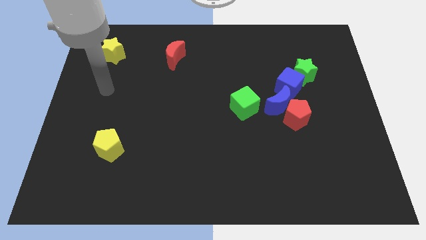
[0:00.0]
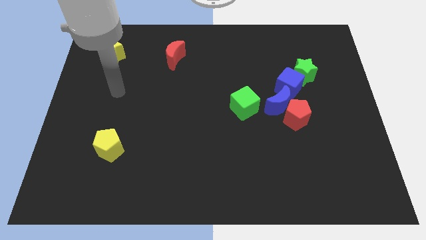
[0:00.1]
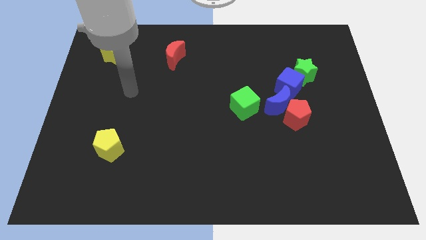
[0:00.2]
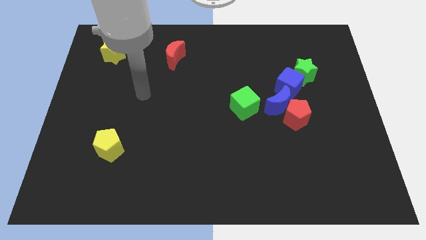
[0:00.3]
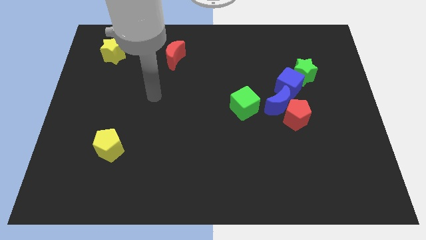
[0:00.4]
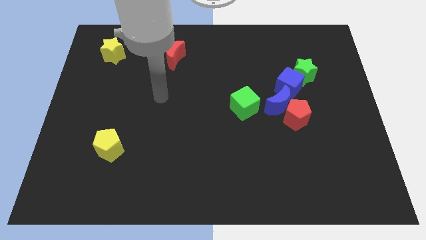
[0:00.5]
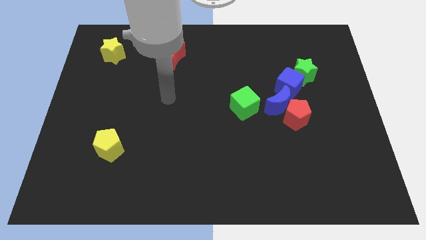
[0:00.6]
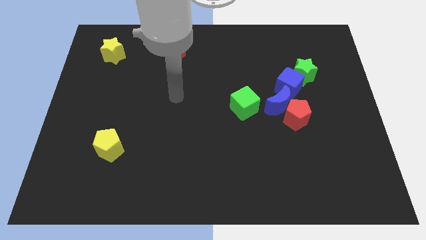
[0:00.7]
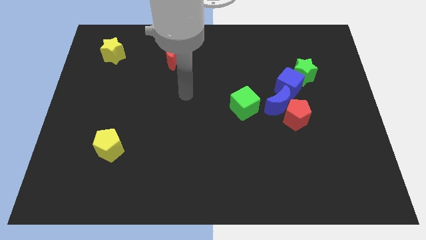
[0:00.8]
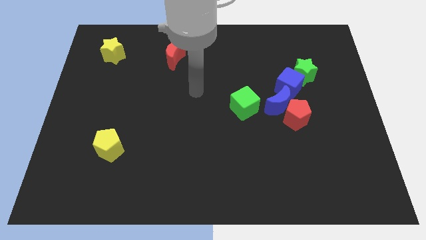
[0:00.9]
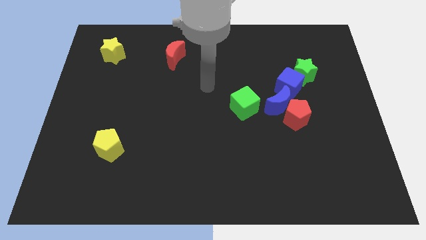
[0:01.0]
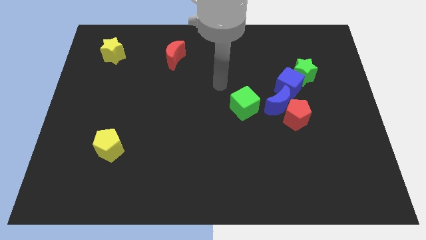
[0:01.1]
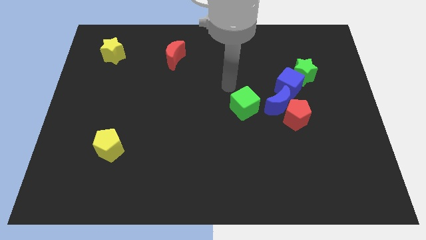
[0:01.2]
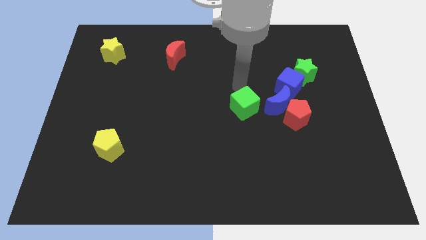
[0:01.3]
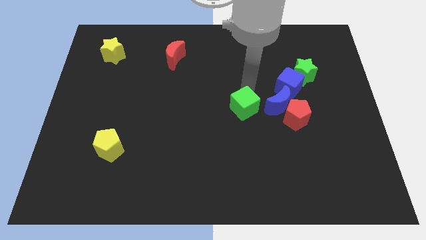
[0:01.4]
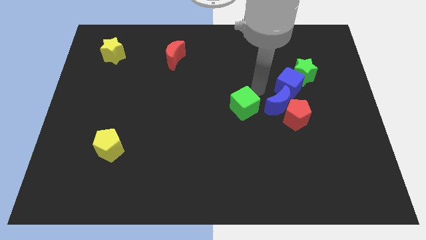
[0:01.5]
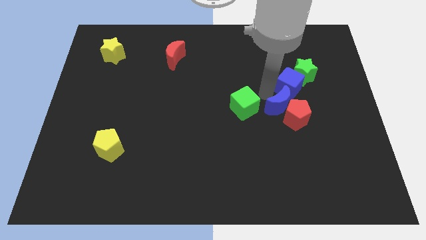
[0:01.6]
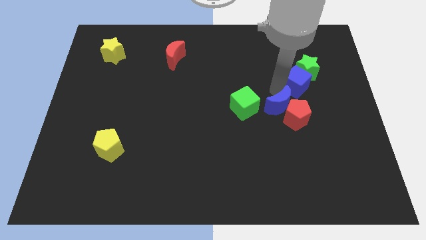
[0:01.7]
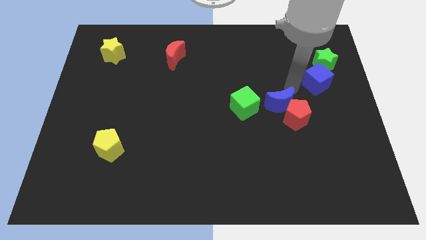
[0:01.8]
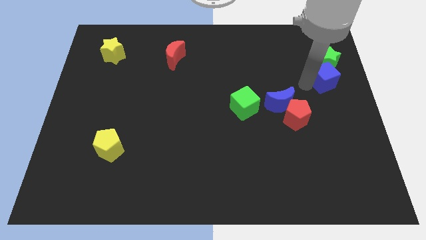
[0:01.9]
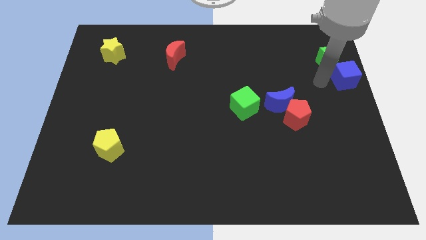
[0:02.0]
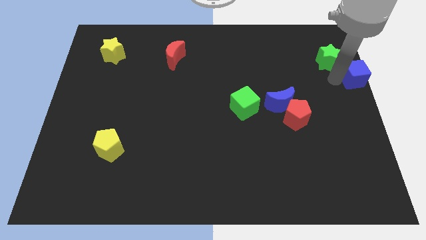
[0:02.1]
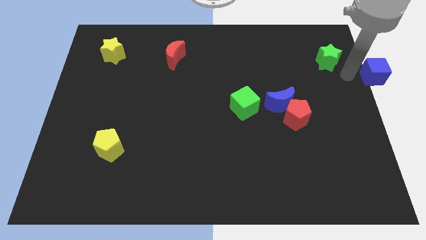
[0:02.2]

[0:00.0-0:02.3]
pull the green star apart from the blue cube

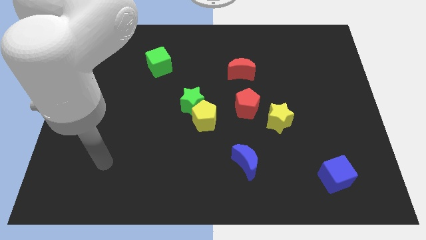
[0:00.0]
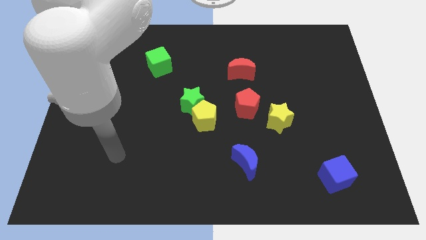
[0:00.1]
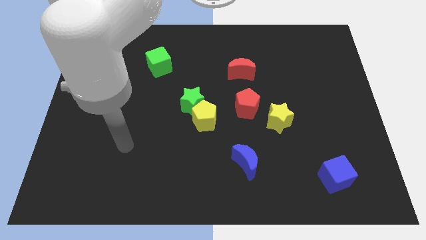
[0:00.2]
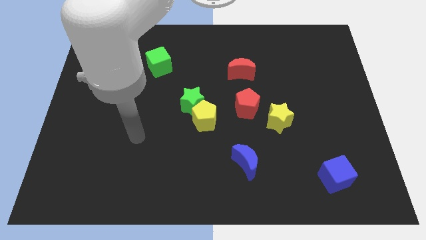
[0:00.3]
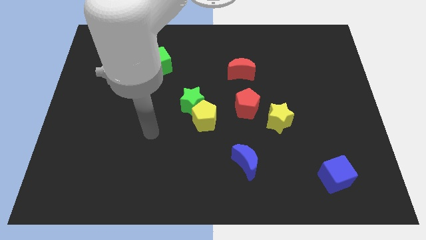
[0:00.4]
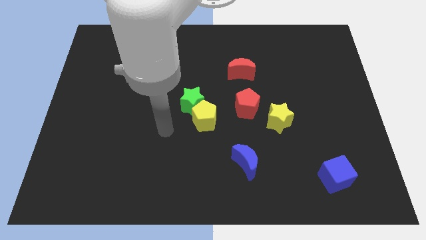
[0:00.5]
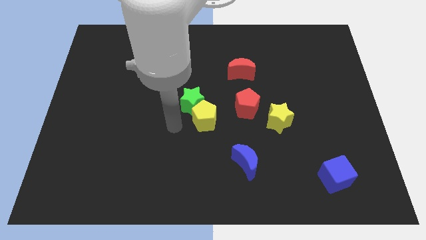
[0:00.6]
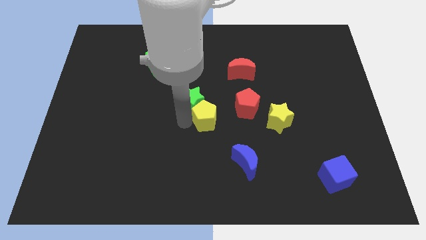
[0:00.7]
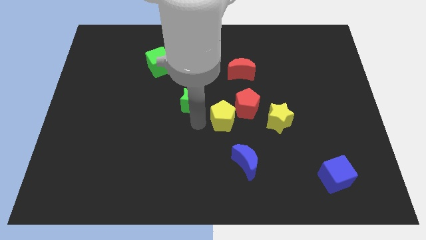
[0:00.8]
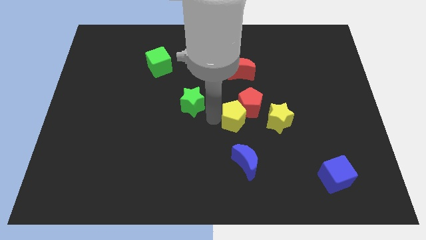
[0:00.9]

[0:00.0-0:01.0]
separate the green star from the yellow pentagon

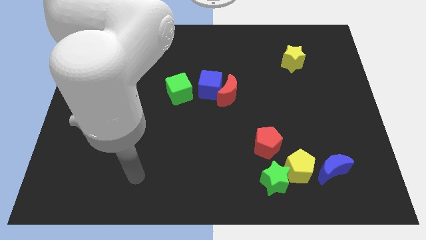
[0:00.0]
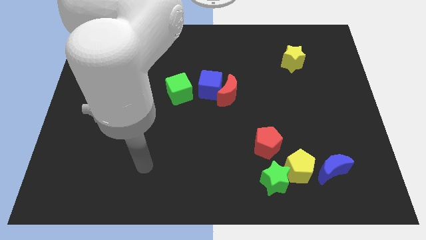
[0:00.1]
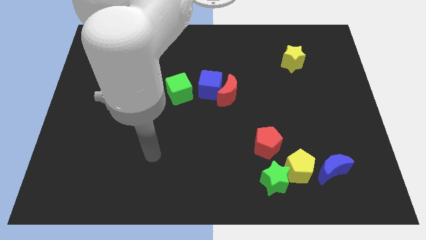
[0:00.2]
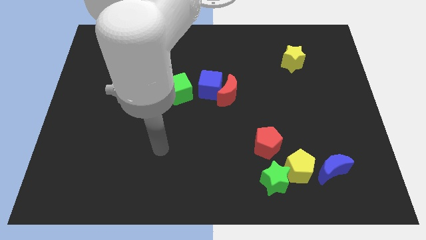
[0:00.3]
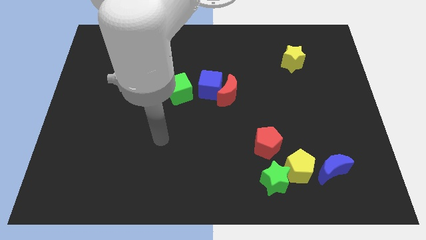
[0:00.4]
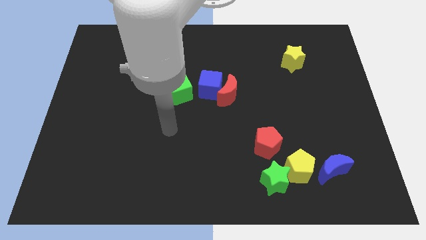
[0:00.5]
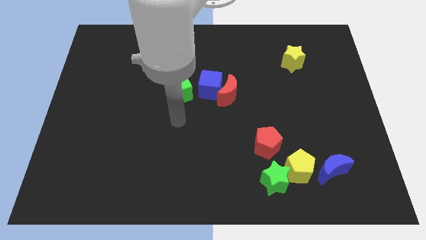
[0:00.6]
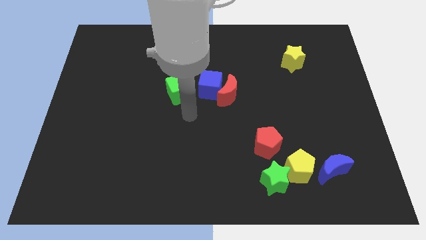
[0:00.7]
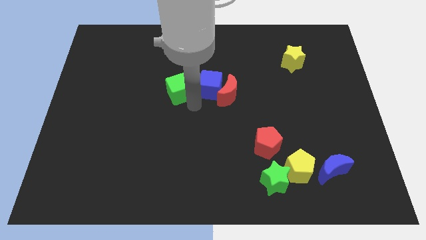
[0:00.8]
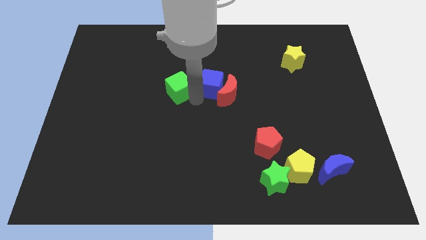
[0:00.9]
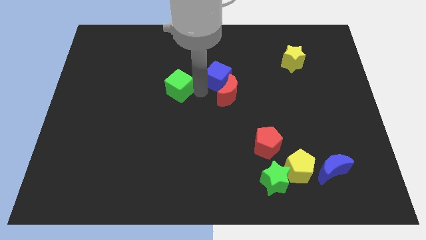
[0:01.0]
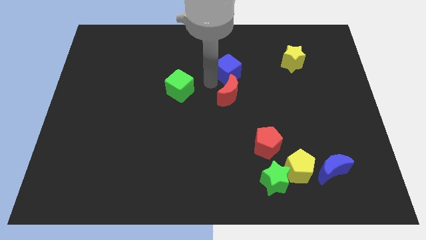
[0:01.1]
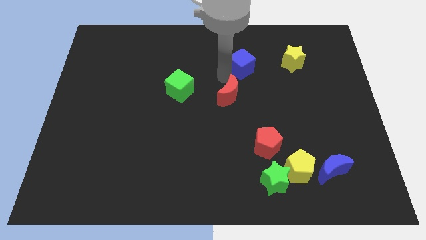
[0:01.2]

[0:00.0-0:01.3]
pull the red moon apart from the blue cube

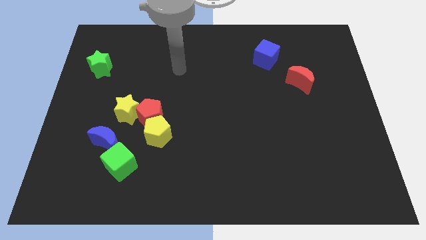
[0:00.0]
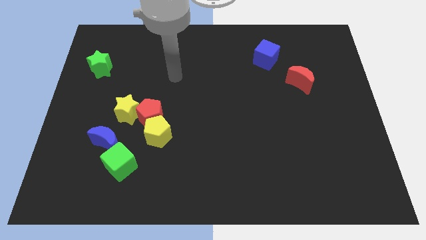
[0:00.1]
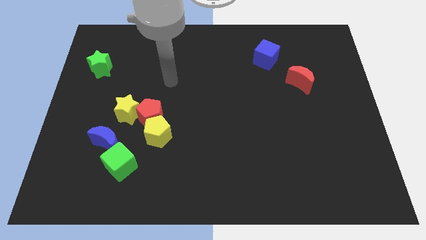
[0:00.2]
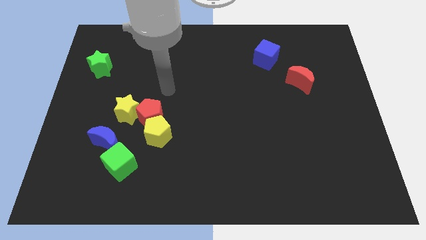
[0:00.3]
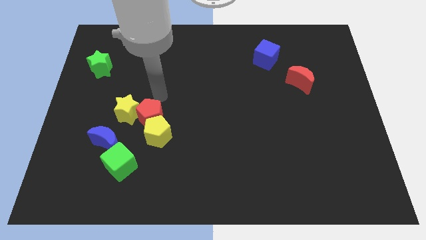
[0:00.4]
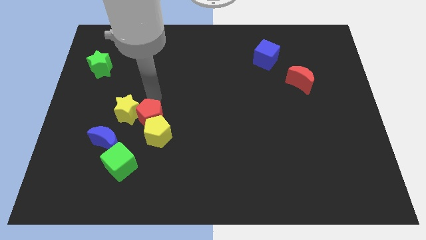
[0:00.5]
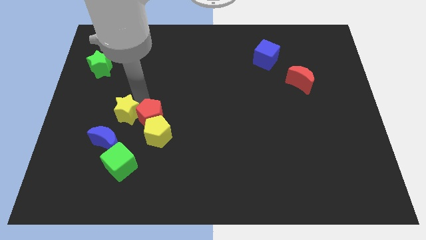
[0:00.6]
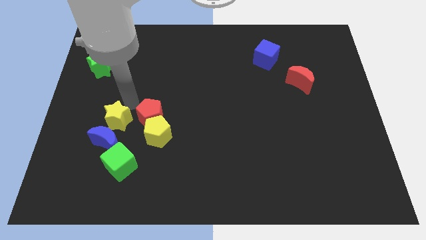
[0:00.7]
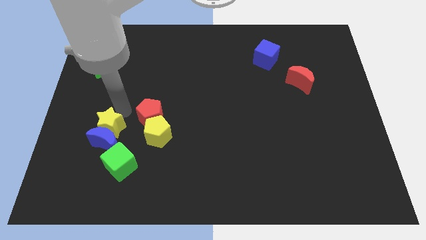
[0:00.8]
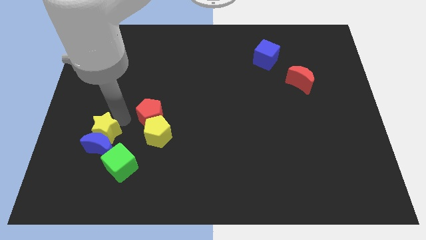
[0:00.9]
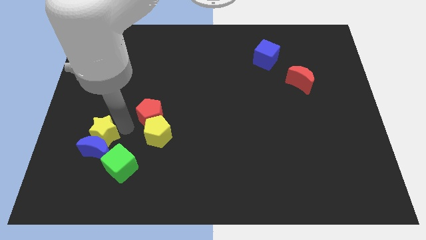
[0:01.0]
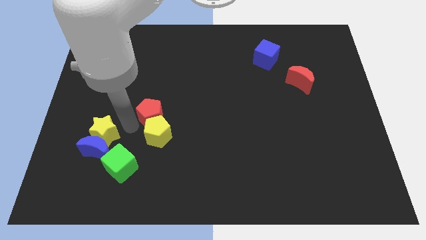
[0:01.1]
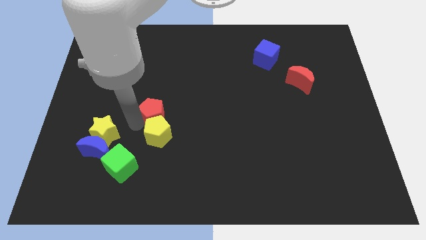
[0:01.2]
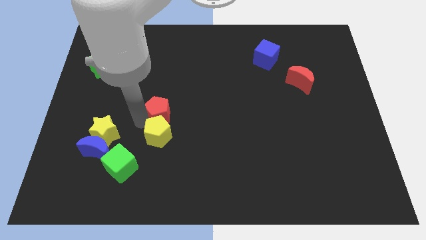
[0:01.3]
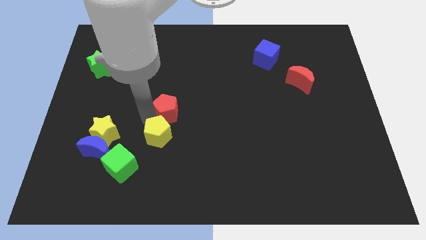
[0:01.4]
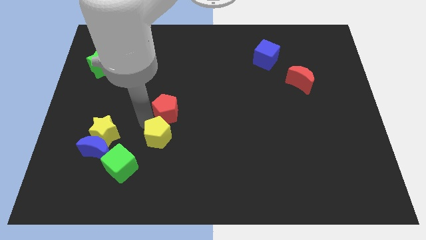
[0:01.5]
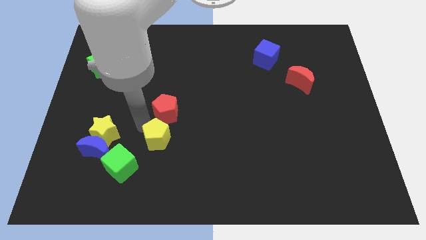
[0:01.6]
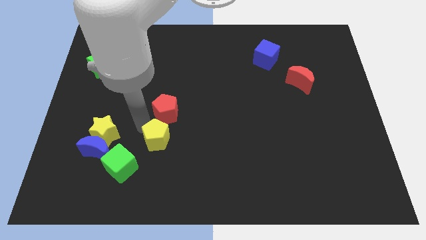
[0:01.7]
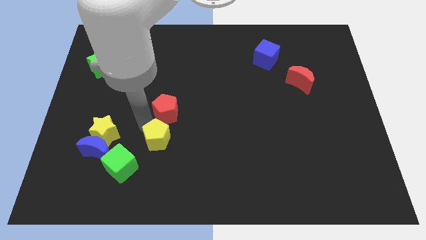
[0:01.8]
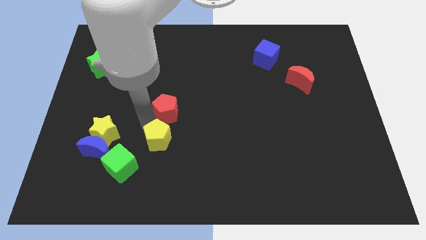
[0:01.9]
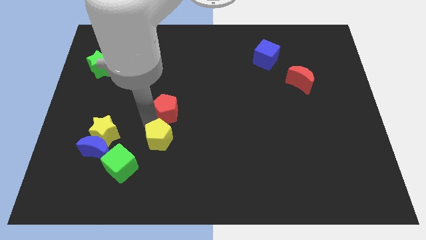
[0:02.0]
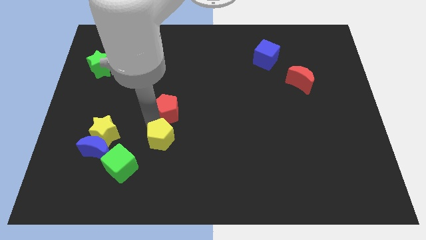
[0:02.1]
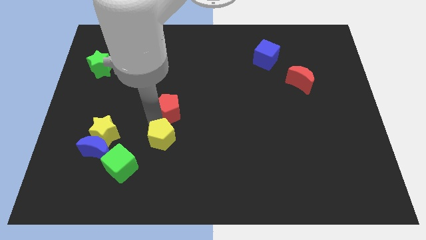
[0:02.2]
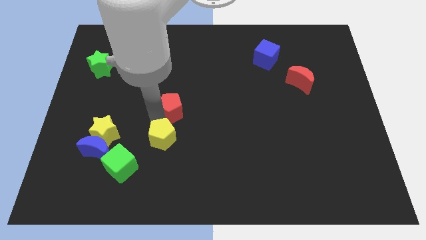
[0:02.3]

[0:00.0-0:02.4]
separate the red pentagon from the yellow pentagon and yellow star

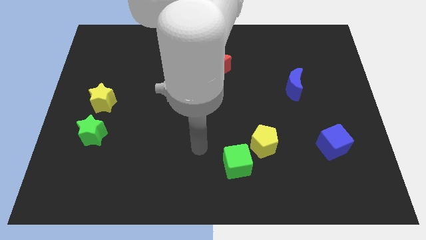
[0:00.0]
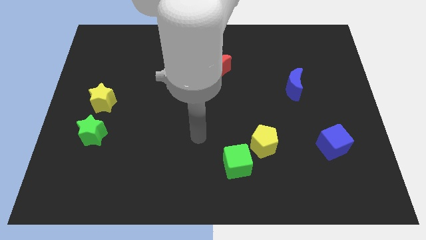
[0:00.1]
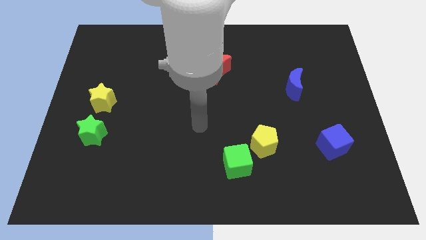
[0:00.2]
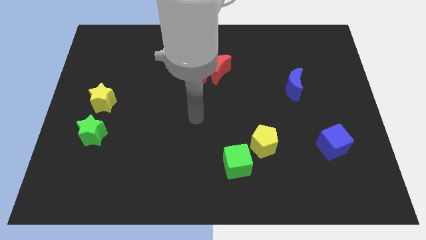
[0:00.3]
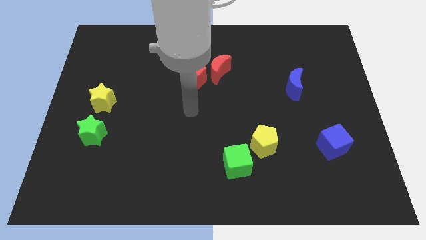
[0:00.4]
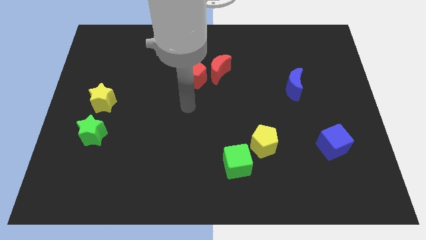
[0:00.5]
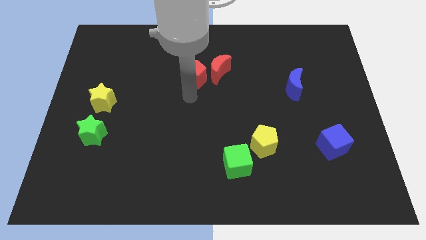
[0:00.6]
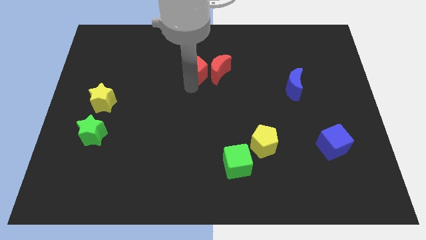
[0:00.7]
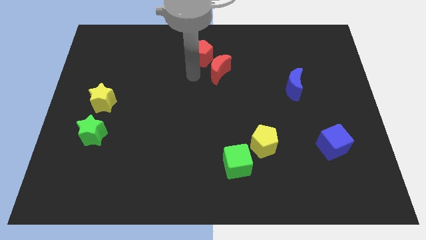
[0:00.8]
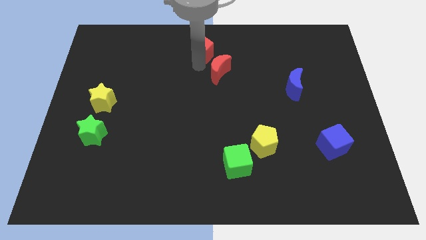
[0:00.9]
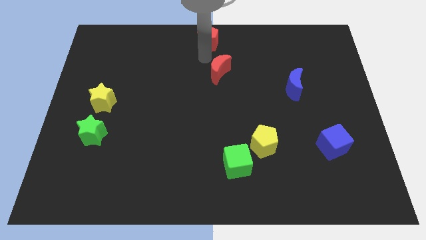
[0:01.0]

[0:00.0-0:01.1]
move the red moon away from the red pentagon

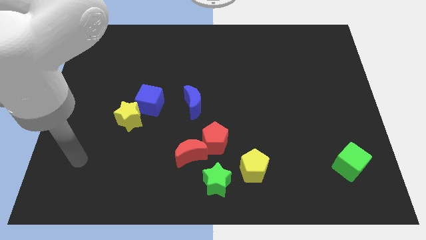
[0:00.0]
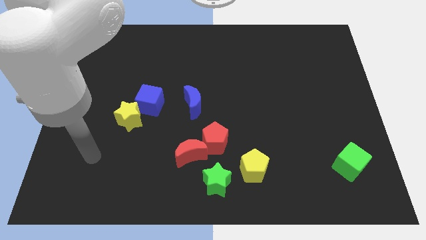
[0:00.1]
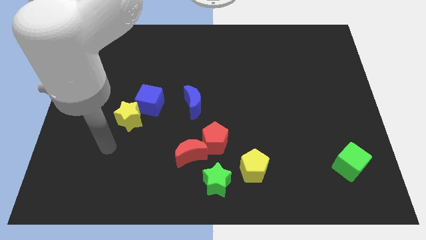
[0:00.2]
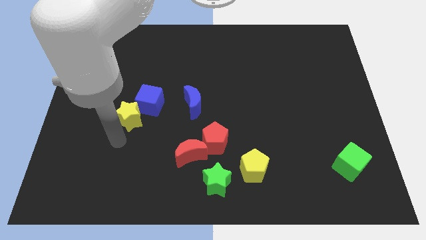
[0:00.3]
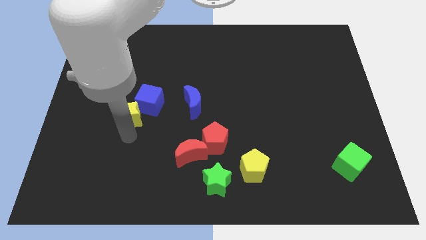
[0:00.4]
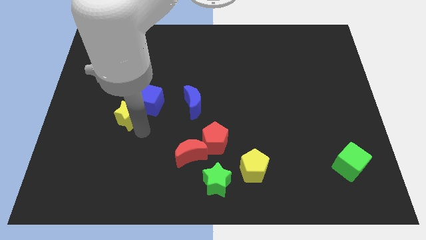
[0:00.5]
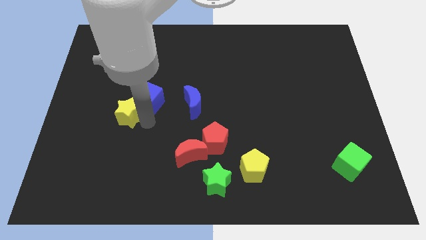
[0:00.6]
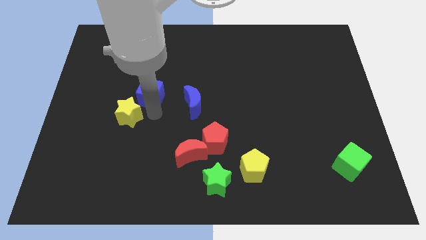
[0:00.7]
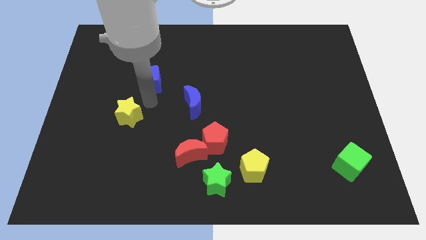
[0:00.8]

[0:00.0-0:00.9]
separate the yellow star from the blue cube

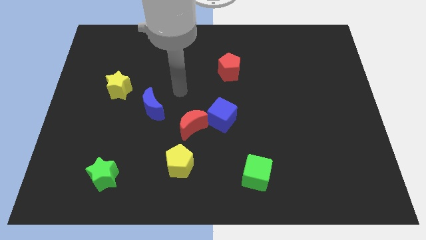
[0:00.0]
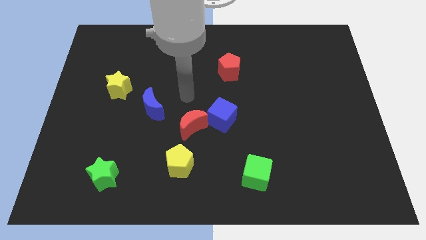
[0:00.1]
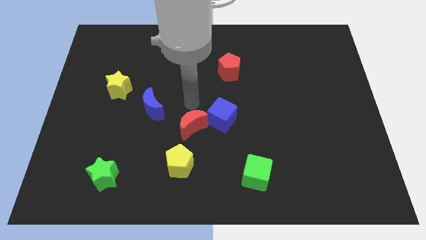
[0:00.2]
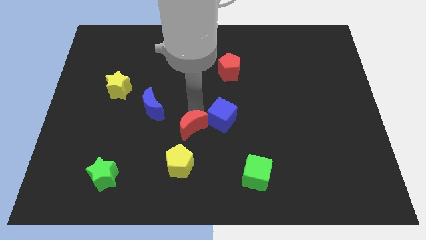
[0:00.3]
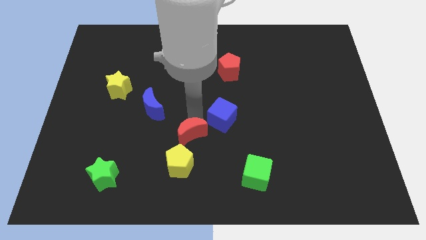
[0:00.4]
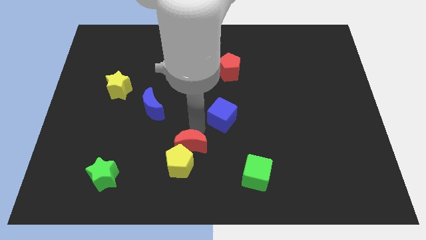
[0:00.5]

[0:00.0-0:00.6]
move the blue cube away from the red moon
